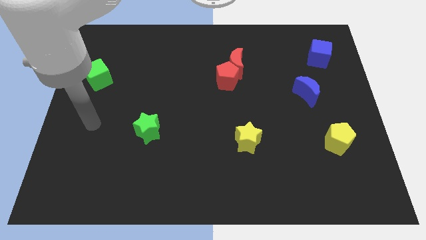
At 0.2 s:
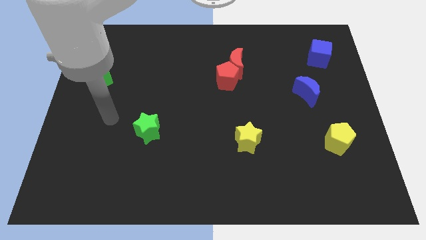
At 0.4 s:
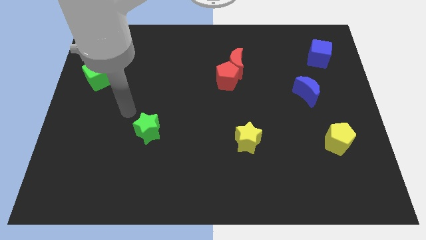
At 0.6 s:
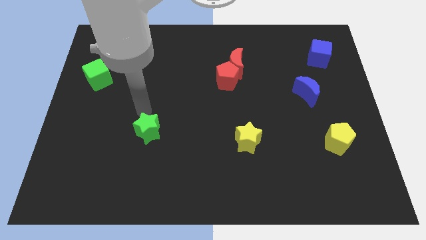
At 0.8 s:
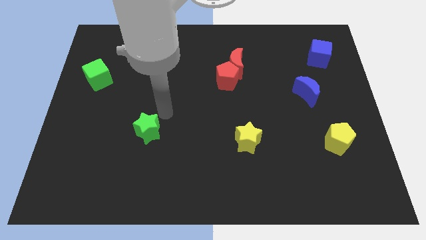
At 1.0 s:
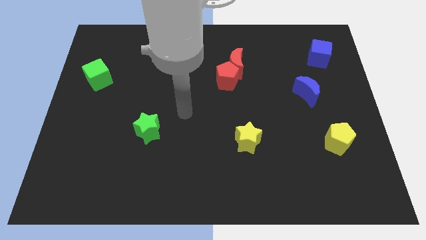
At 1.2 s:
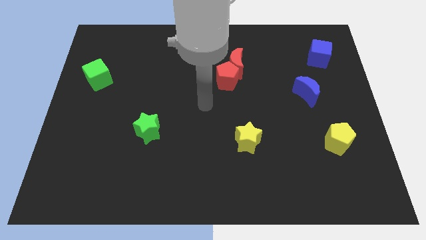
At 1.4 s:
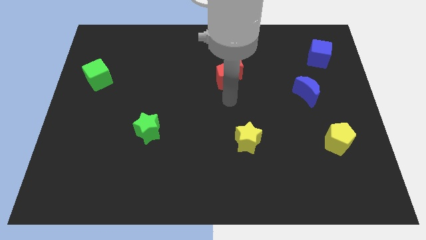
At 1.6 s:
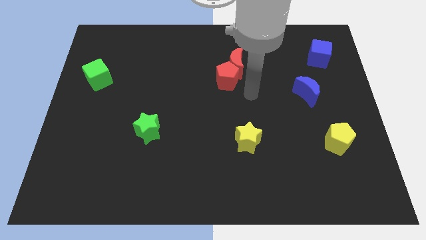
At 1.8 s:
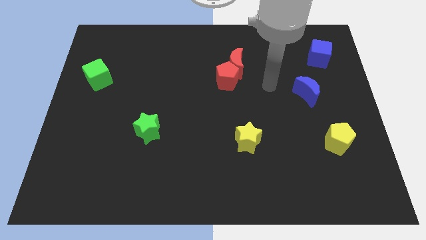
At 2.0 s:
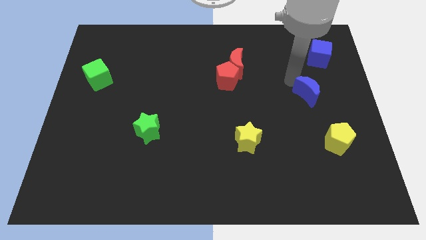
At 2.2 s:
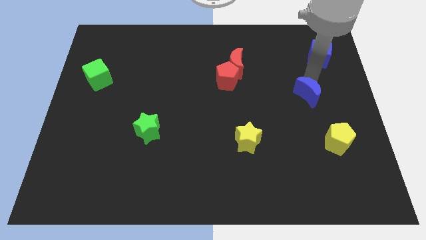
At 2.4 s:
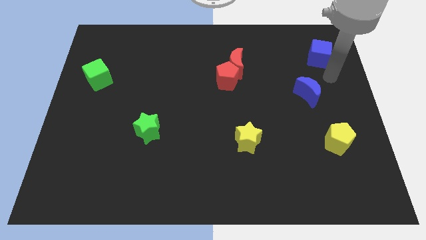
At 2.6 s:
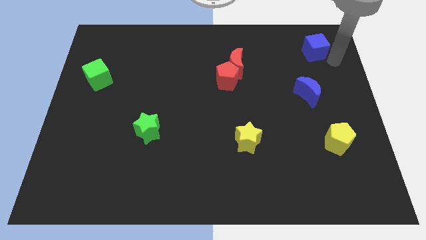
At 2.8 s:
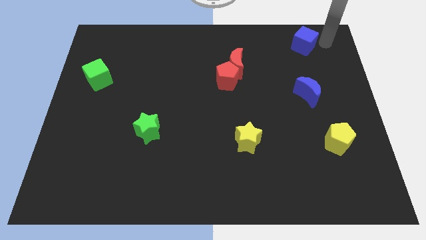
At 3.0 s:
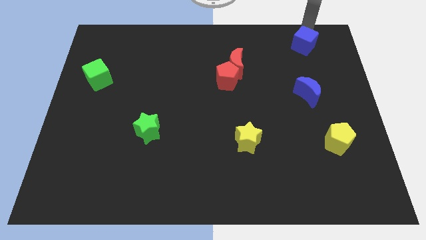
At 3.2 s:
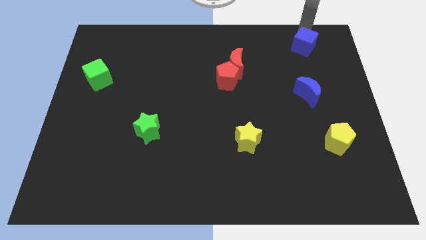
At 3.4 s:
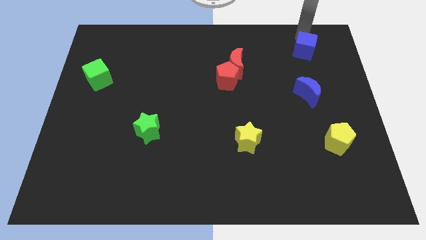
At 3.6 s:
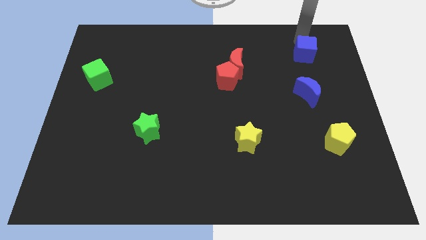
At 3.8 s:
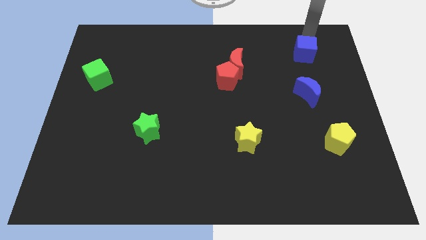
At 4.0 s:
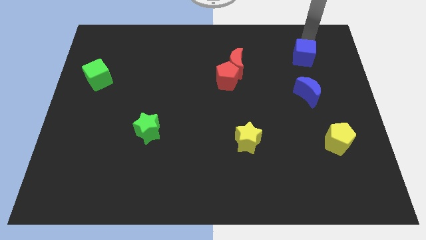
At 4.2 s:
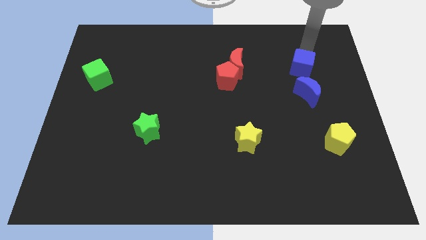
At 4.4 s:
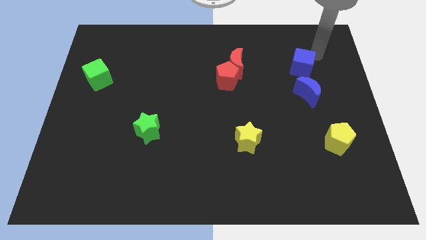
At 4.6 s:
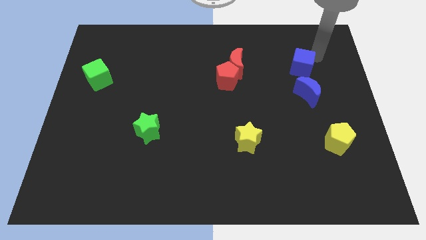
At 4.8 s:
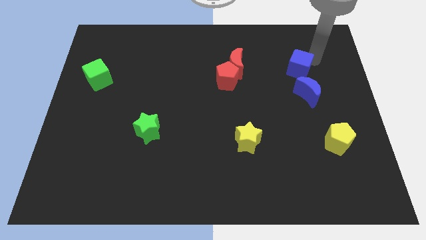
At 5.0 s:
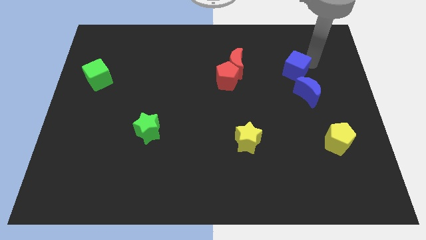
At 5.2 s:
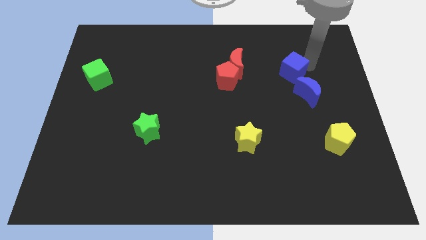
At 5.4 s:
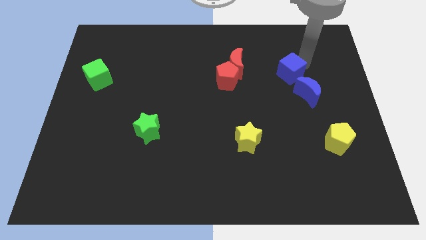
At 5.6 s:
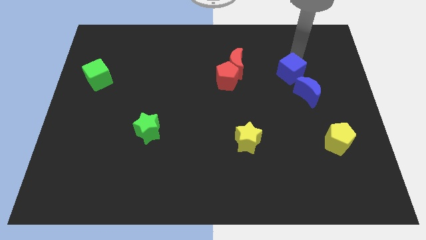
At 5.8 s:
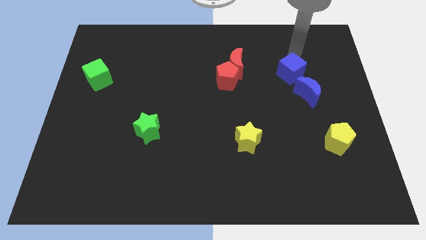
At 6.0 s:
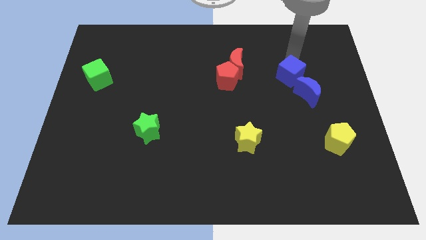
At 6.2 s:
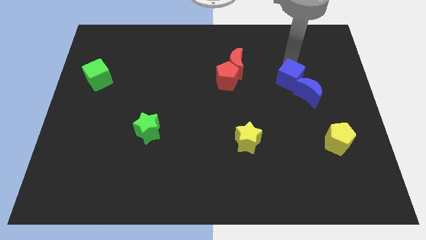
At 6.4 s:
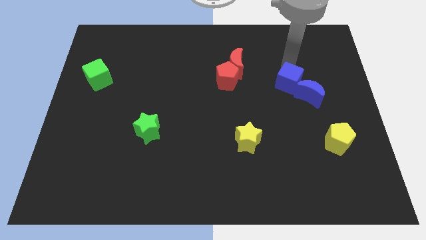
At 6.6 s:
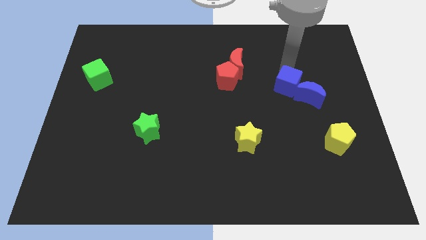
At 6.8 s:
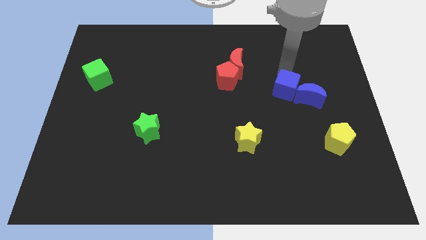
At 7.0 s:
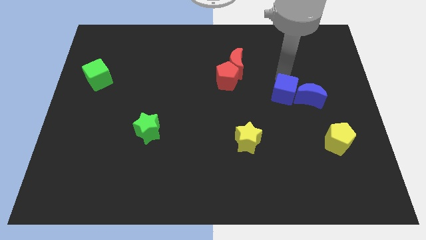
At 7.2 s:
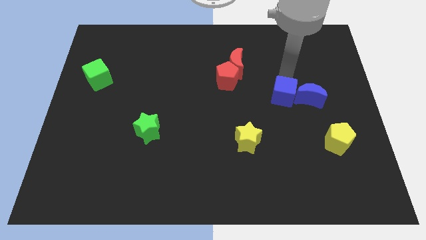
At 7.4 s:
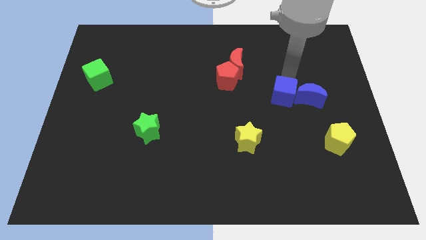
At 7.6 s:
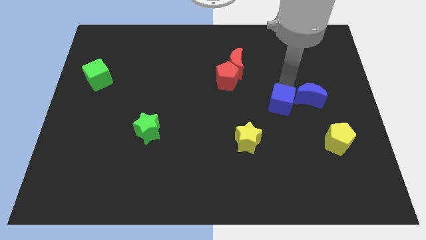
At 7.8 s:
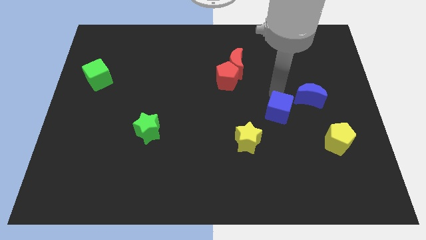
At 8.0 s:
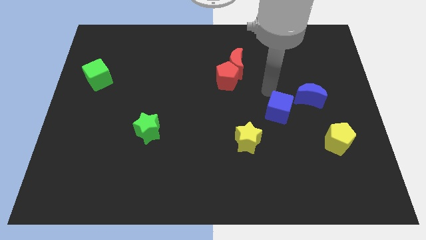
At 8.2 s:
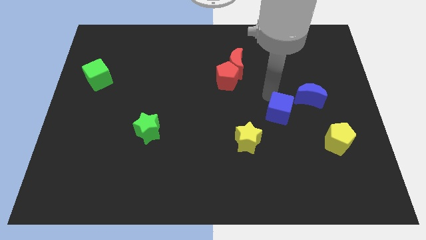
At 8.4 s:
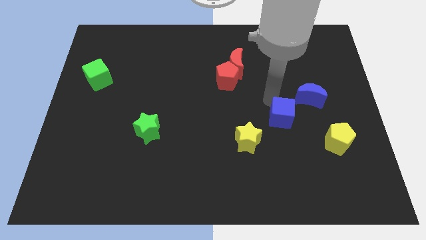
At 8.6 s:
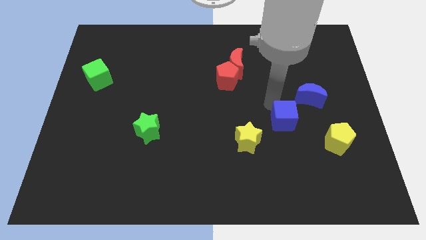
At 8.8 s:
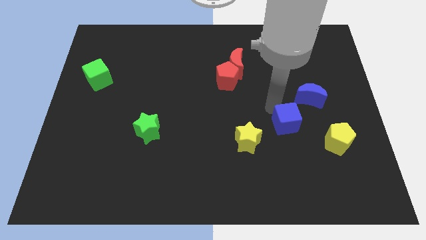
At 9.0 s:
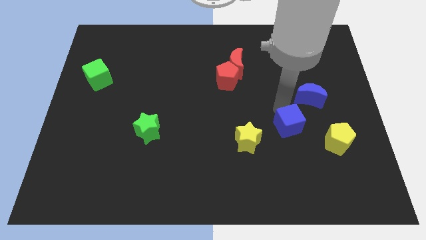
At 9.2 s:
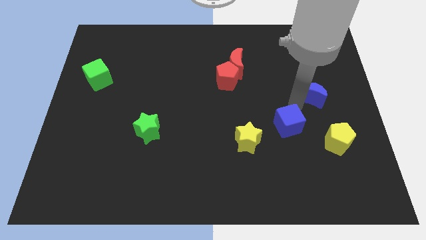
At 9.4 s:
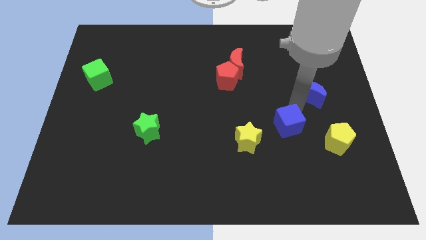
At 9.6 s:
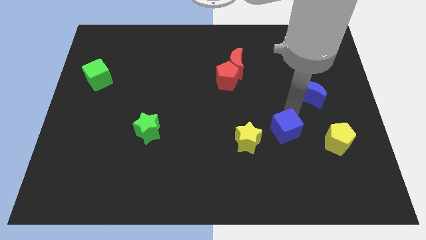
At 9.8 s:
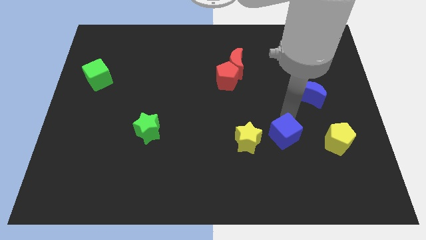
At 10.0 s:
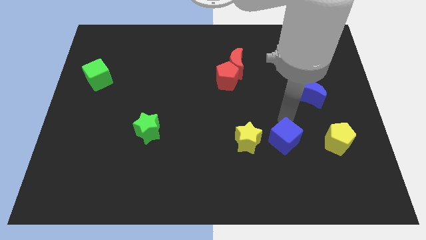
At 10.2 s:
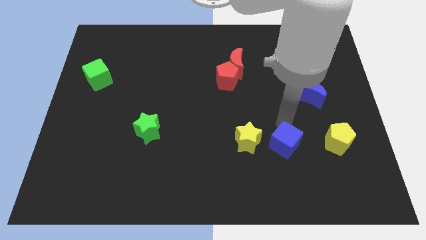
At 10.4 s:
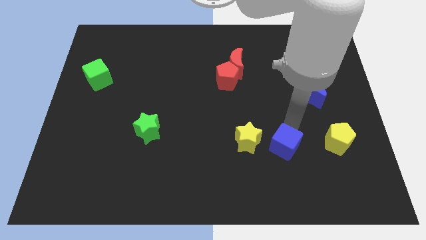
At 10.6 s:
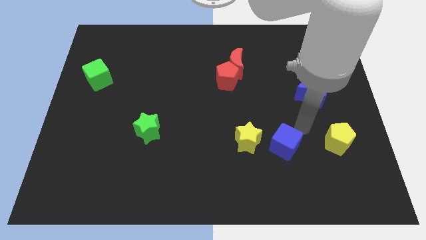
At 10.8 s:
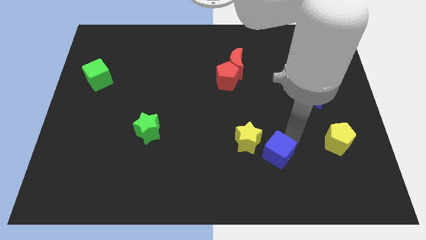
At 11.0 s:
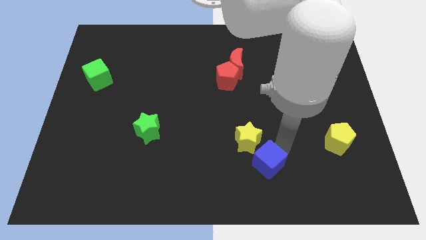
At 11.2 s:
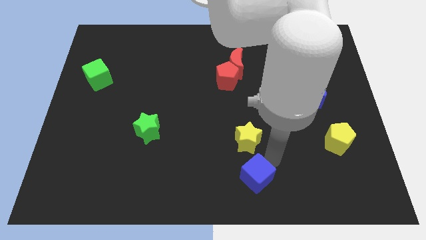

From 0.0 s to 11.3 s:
put the blue cube to the bottom

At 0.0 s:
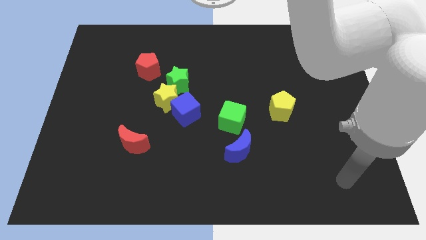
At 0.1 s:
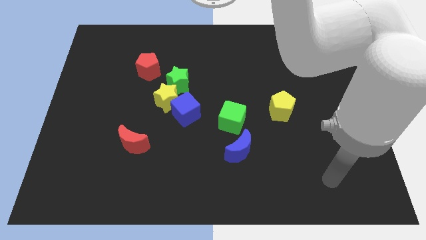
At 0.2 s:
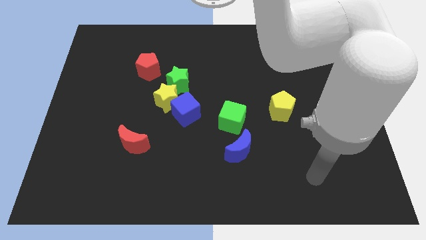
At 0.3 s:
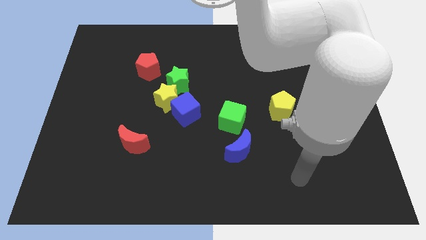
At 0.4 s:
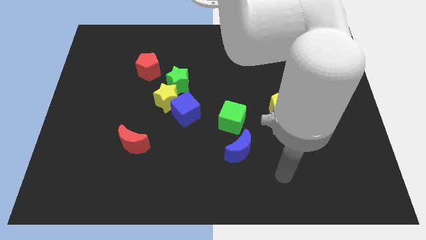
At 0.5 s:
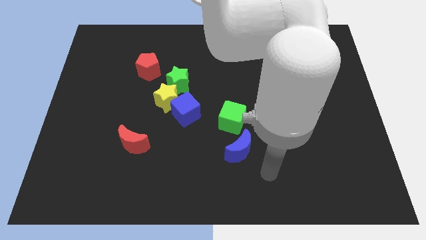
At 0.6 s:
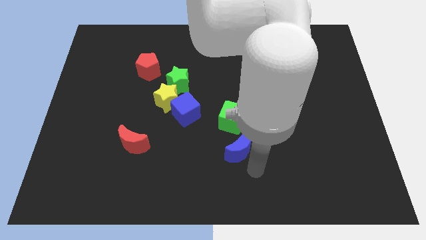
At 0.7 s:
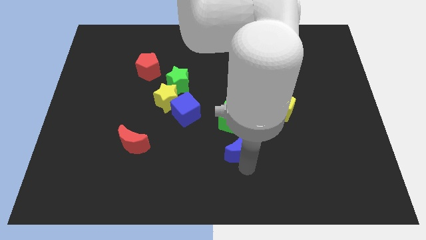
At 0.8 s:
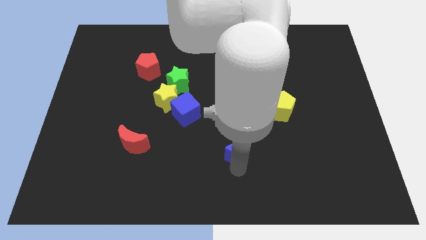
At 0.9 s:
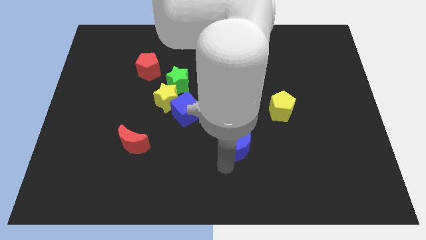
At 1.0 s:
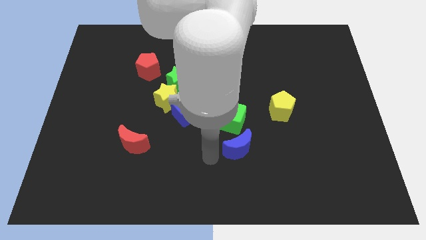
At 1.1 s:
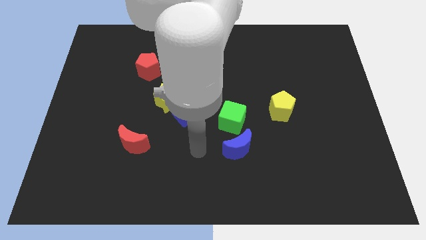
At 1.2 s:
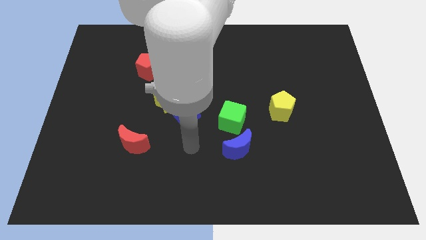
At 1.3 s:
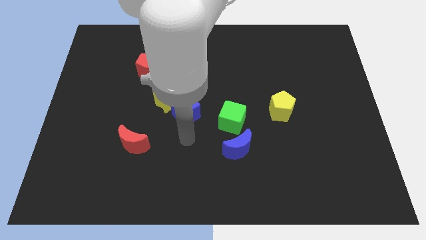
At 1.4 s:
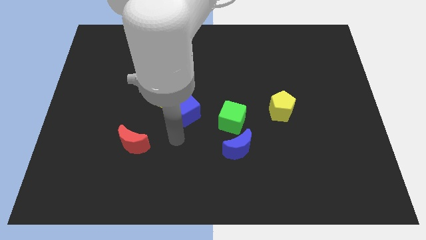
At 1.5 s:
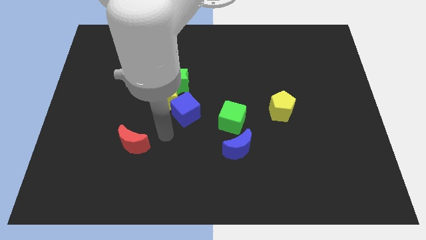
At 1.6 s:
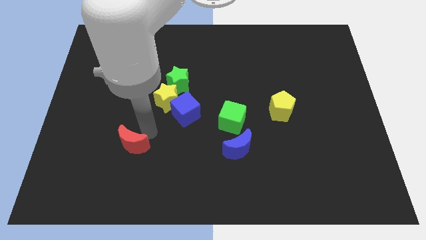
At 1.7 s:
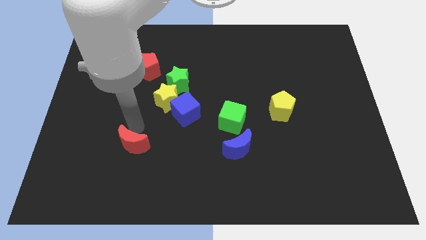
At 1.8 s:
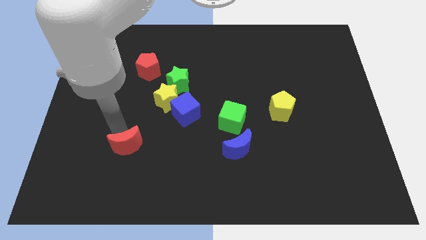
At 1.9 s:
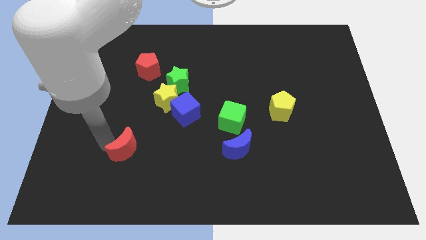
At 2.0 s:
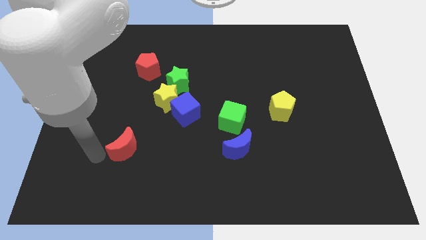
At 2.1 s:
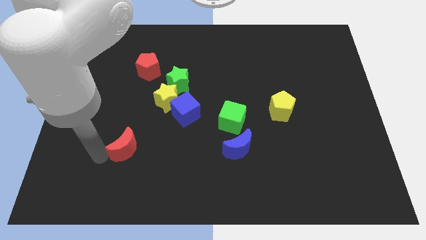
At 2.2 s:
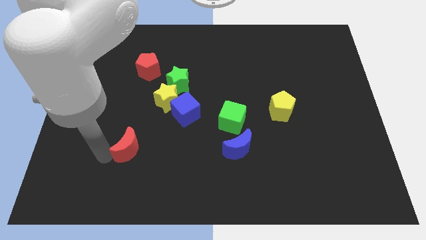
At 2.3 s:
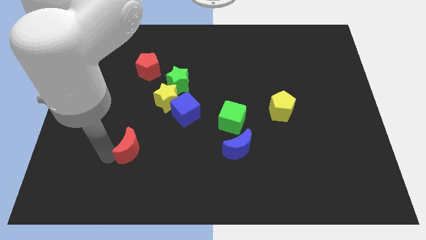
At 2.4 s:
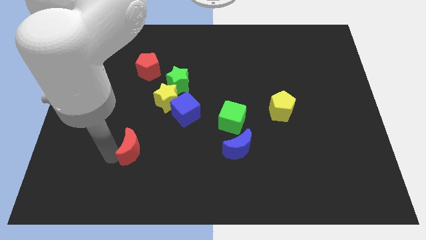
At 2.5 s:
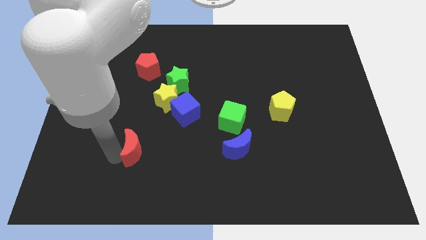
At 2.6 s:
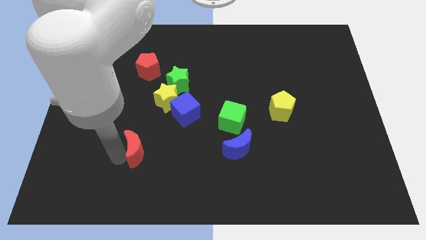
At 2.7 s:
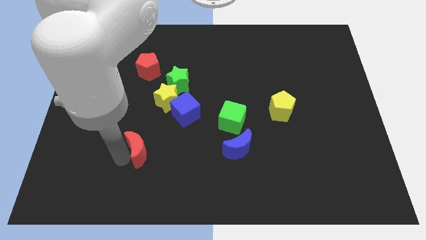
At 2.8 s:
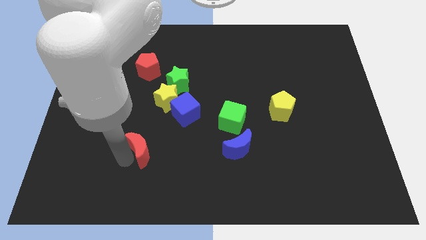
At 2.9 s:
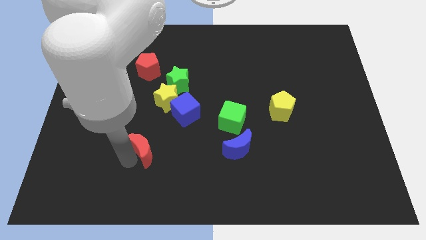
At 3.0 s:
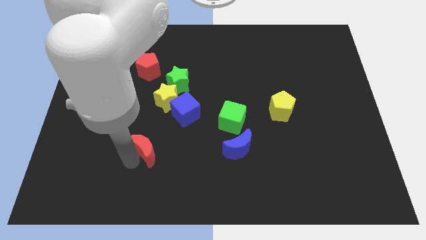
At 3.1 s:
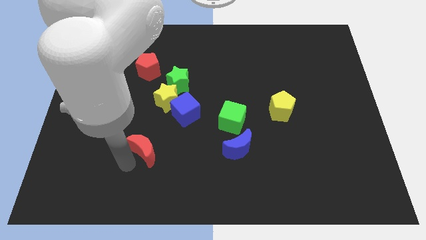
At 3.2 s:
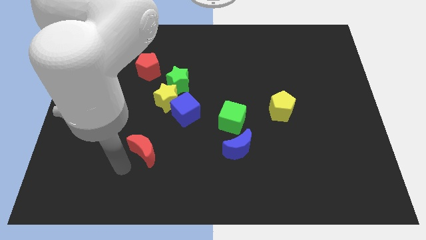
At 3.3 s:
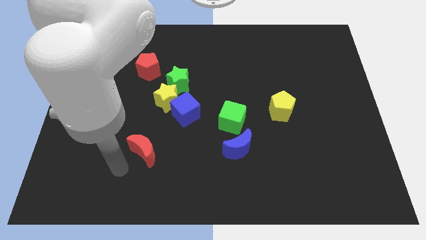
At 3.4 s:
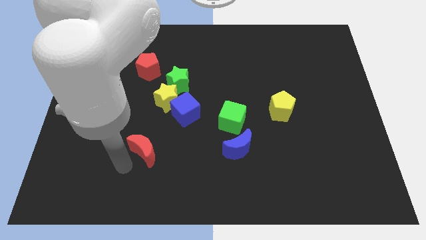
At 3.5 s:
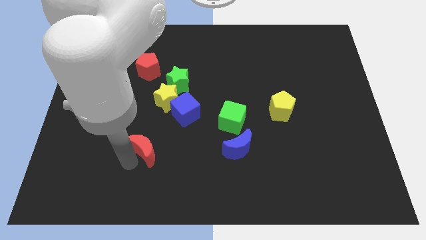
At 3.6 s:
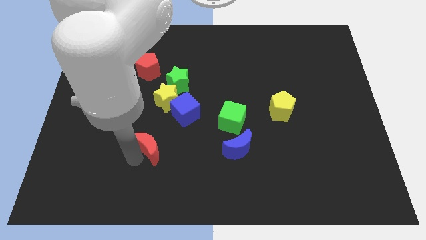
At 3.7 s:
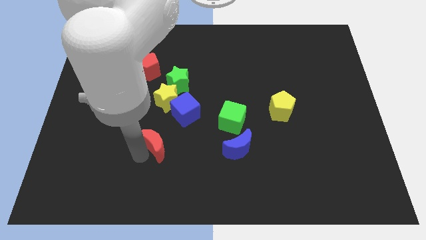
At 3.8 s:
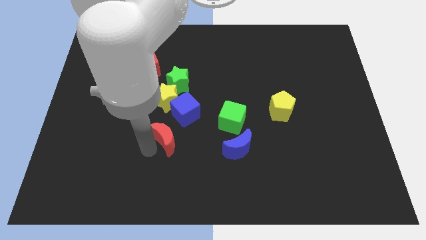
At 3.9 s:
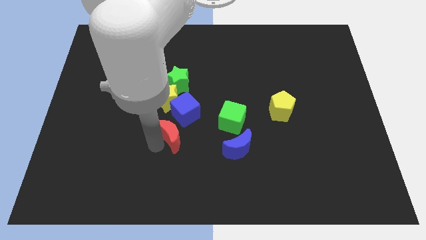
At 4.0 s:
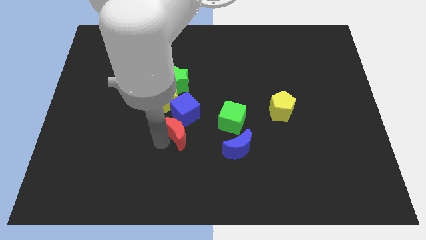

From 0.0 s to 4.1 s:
slide the red moon to the center of the board
